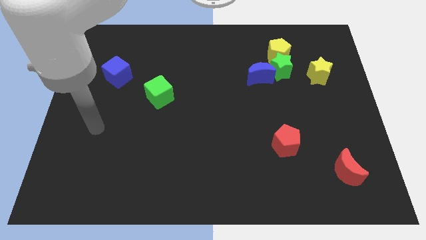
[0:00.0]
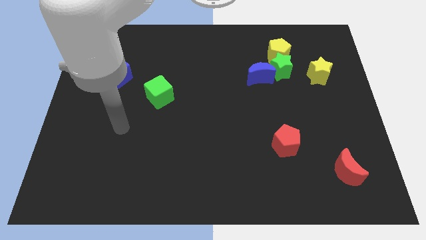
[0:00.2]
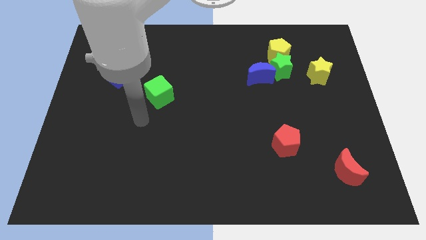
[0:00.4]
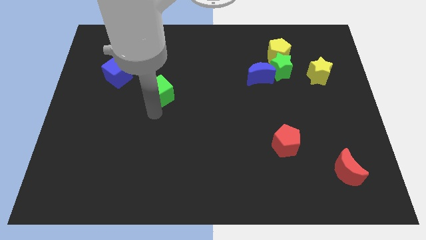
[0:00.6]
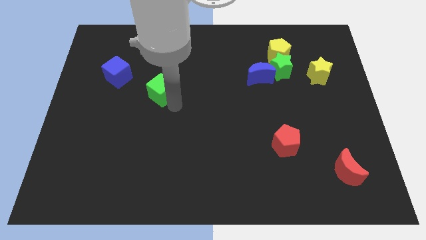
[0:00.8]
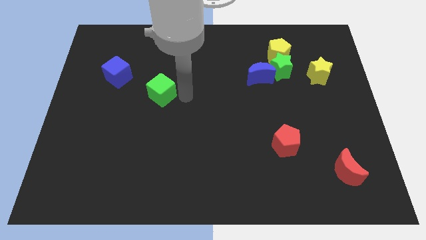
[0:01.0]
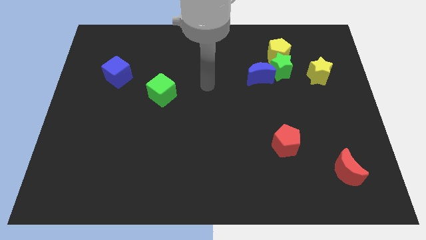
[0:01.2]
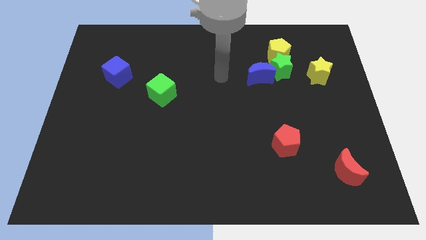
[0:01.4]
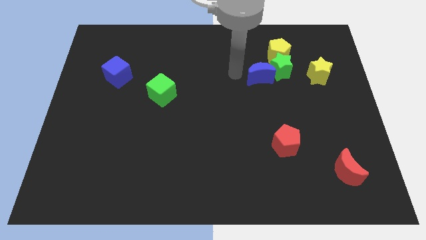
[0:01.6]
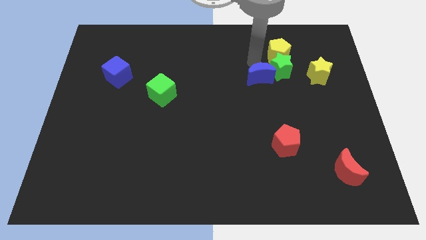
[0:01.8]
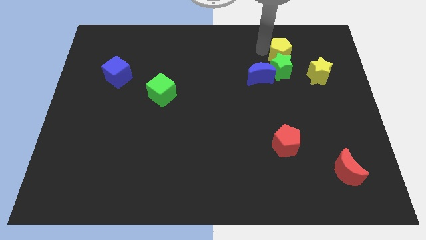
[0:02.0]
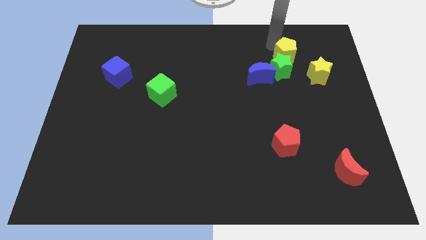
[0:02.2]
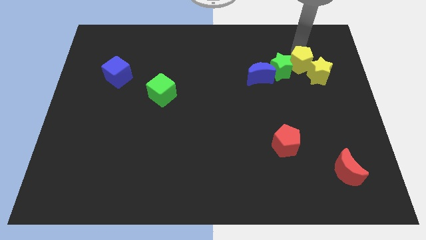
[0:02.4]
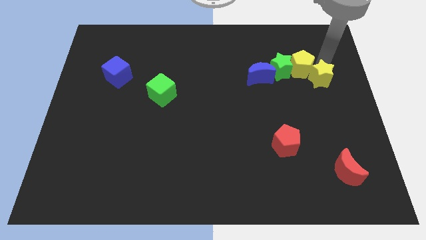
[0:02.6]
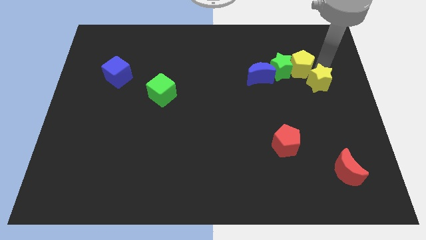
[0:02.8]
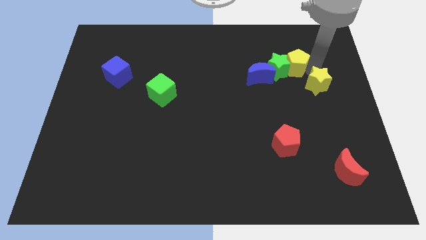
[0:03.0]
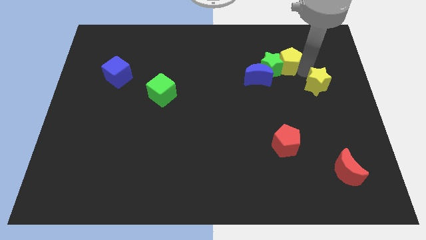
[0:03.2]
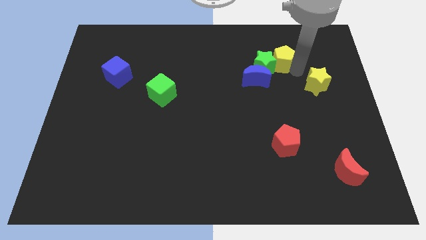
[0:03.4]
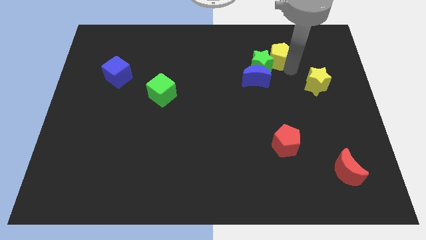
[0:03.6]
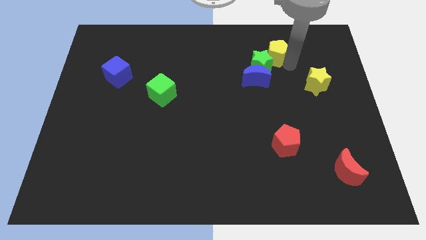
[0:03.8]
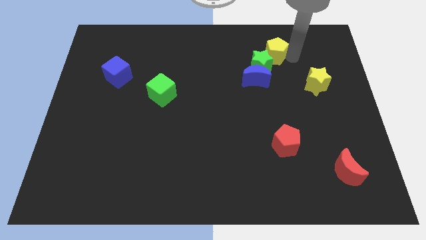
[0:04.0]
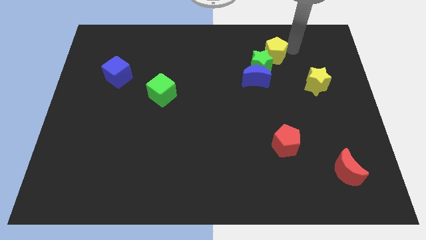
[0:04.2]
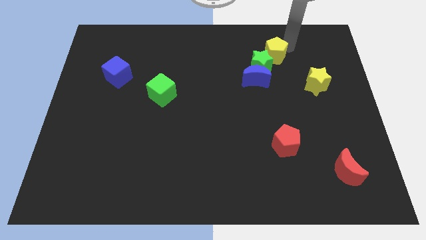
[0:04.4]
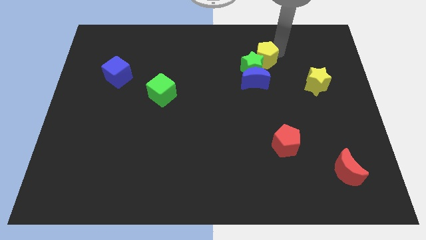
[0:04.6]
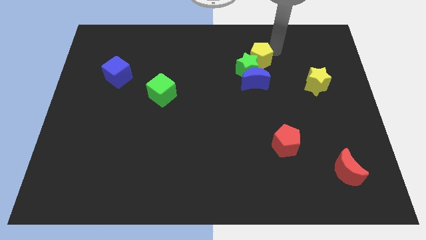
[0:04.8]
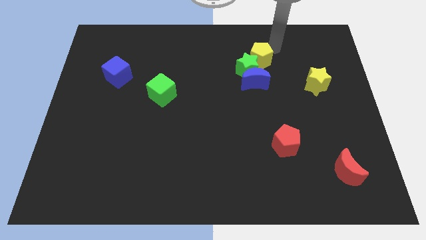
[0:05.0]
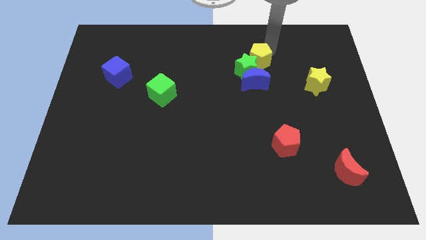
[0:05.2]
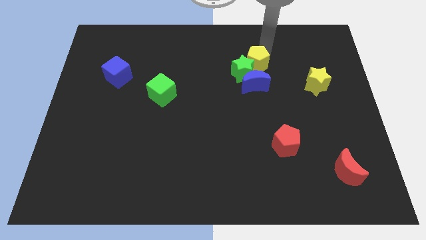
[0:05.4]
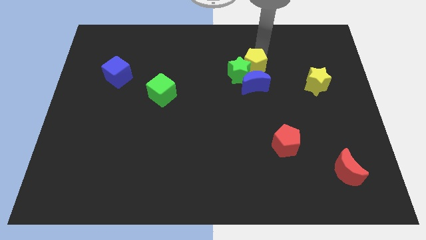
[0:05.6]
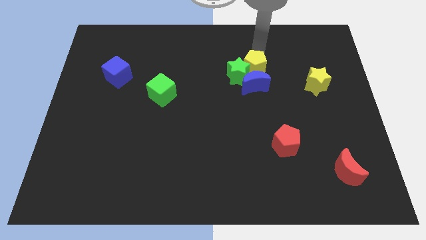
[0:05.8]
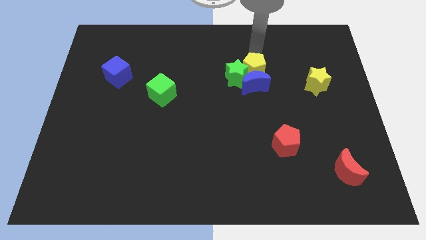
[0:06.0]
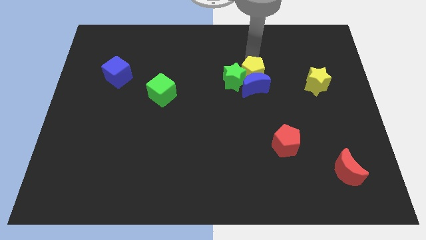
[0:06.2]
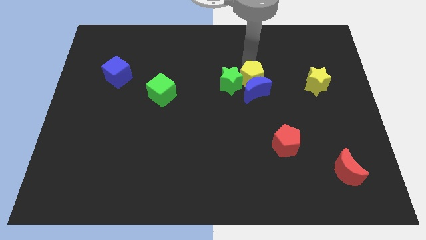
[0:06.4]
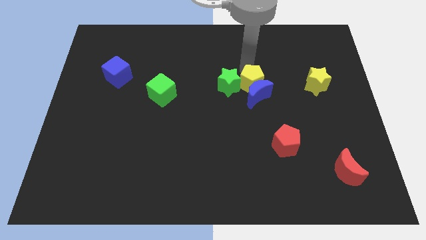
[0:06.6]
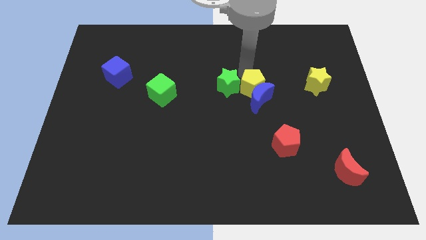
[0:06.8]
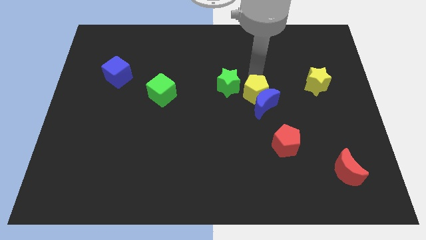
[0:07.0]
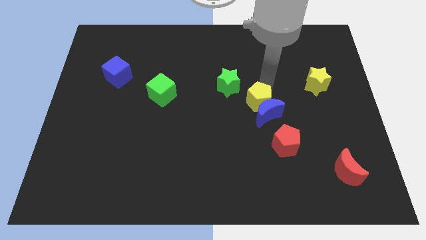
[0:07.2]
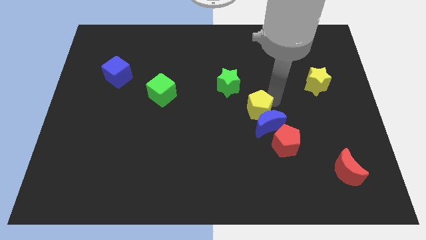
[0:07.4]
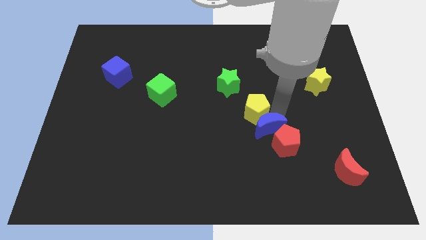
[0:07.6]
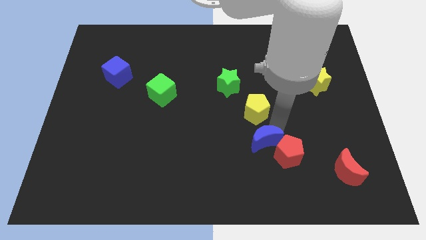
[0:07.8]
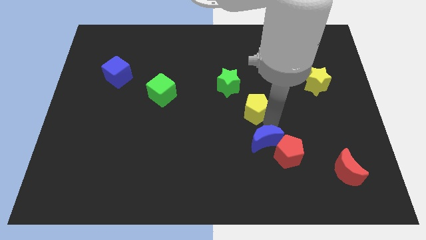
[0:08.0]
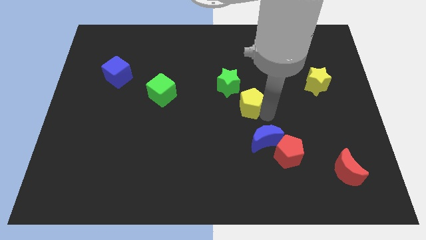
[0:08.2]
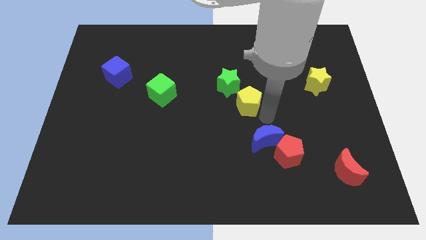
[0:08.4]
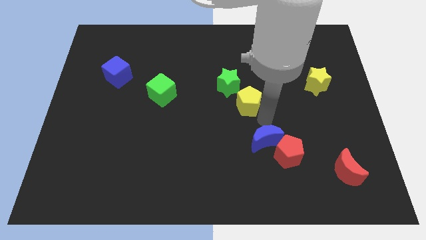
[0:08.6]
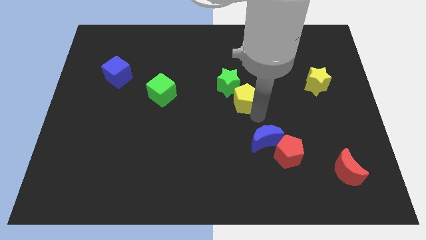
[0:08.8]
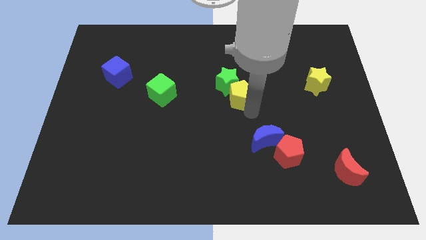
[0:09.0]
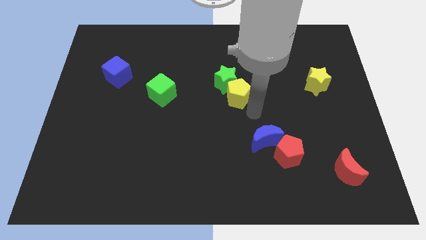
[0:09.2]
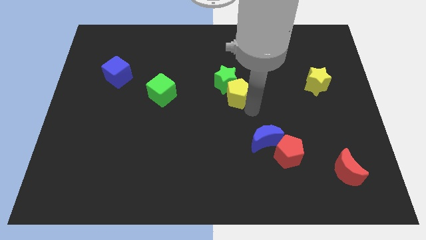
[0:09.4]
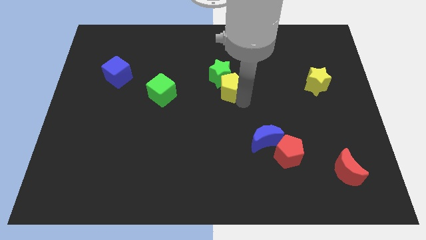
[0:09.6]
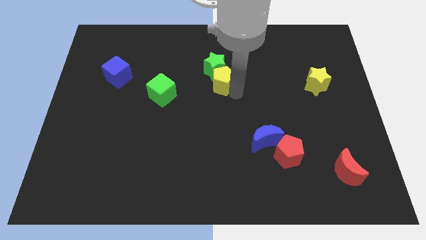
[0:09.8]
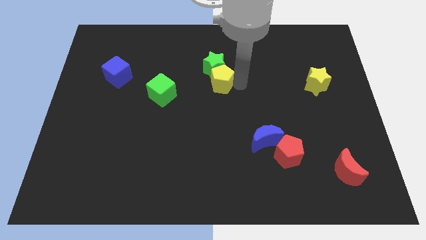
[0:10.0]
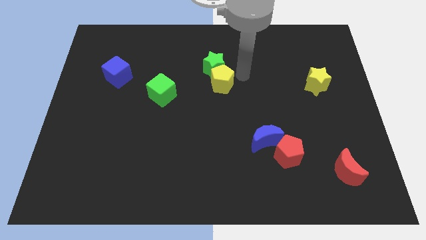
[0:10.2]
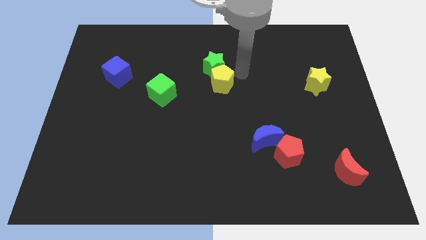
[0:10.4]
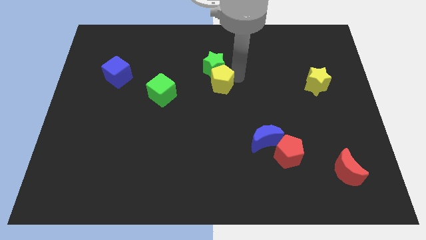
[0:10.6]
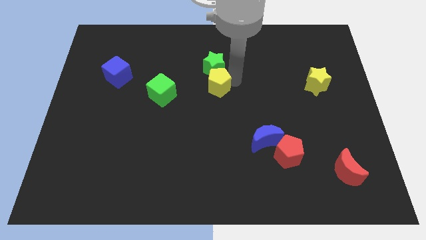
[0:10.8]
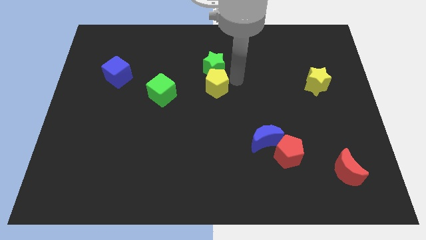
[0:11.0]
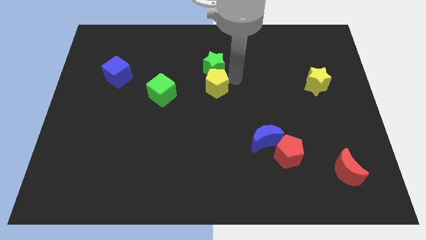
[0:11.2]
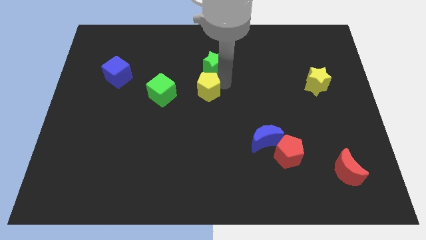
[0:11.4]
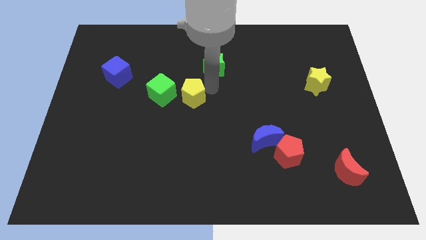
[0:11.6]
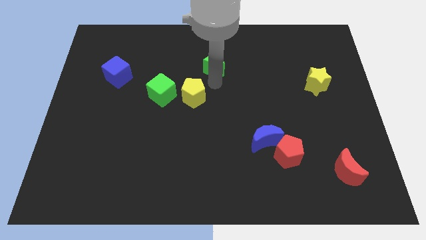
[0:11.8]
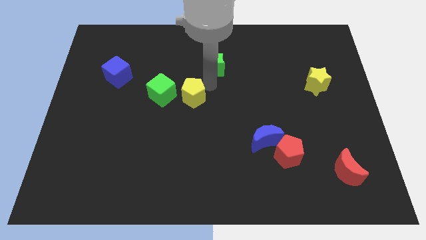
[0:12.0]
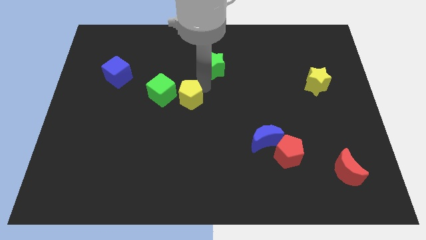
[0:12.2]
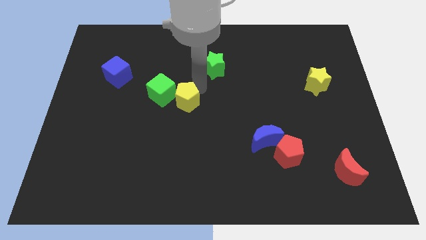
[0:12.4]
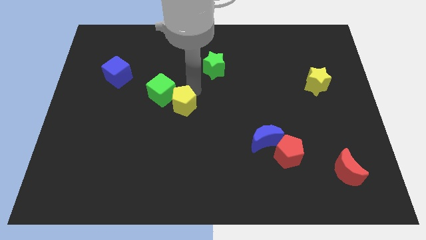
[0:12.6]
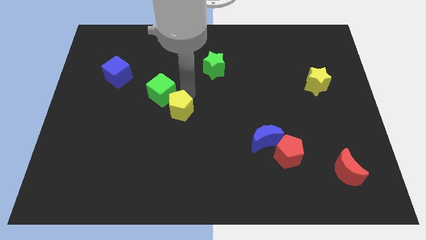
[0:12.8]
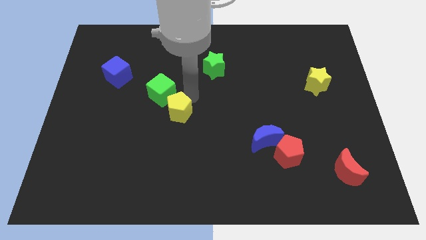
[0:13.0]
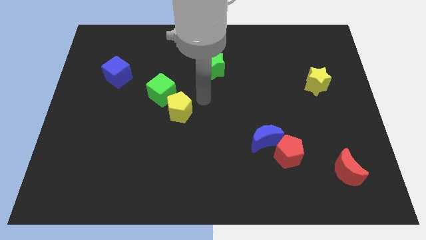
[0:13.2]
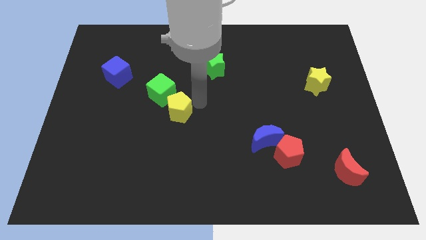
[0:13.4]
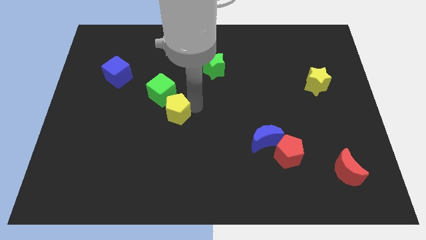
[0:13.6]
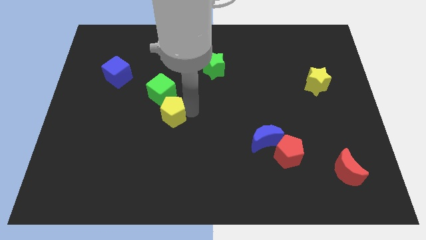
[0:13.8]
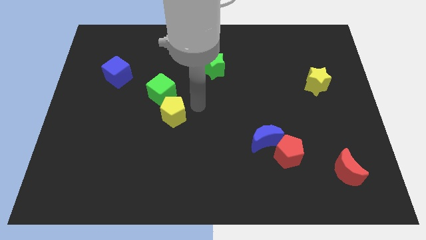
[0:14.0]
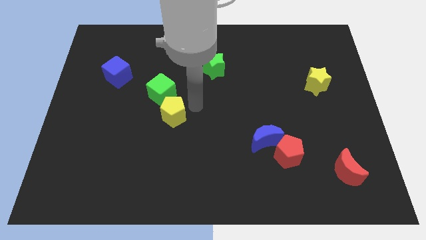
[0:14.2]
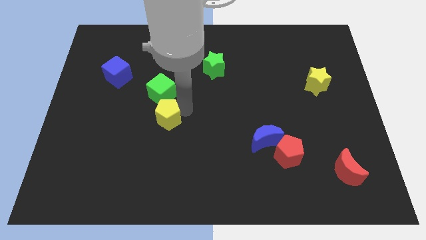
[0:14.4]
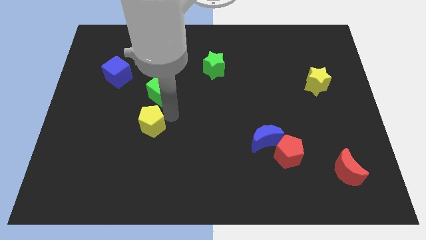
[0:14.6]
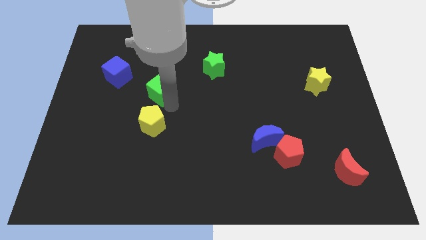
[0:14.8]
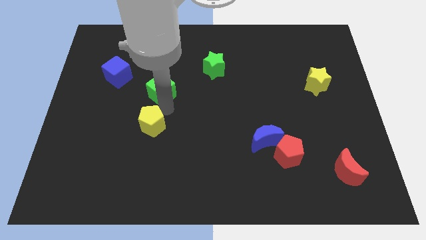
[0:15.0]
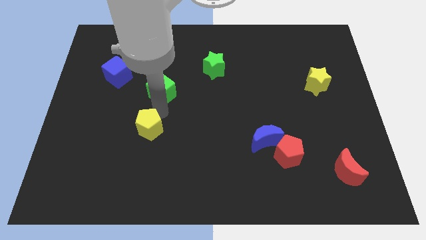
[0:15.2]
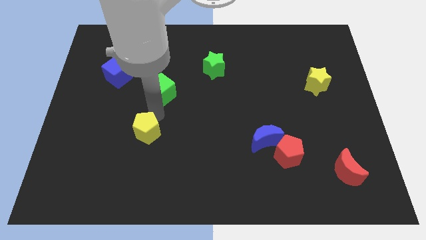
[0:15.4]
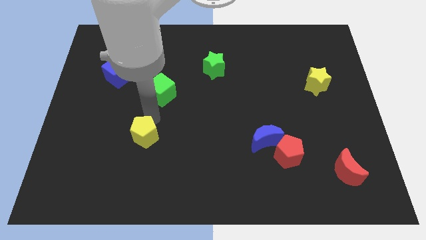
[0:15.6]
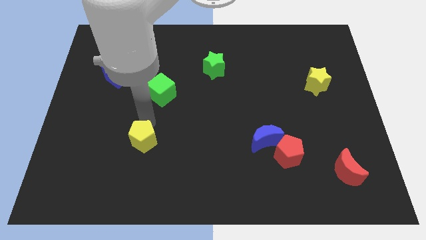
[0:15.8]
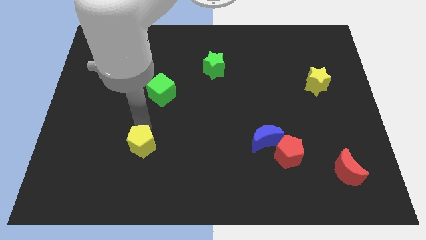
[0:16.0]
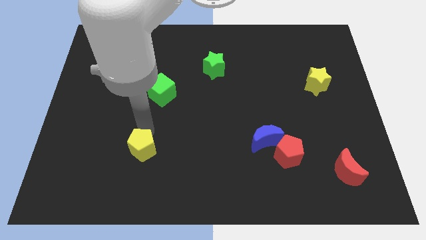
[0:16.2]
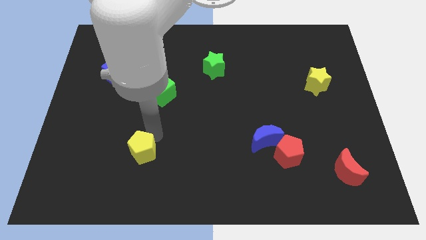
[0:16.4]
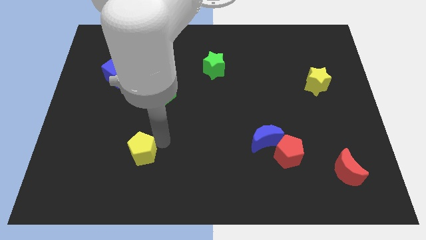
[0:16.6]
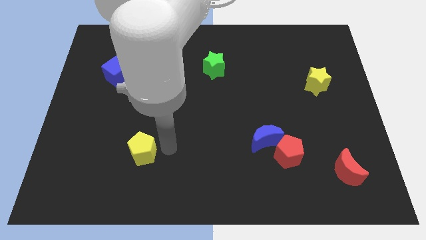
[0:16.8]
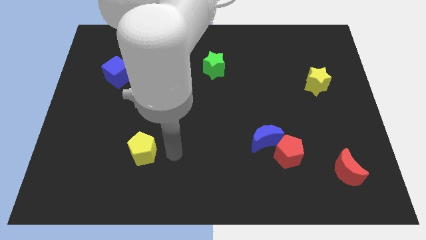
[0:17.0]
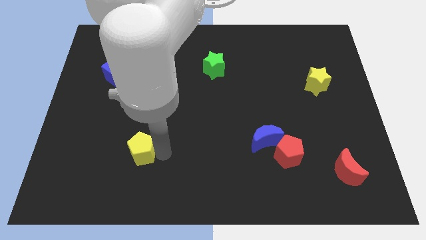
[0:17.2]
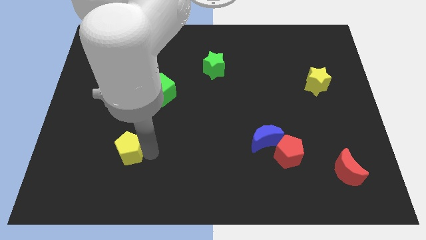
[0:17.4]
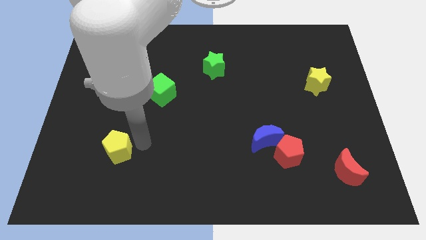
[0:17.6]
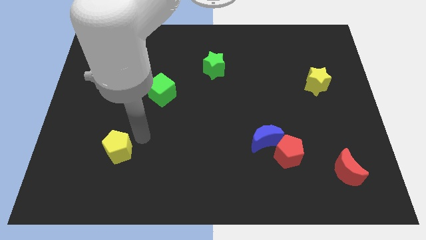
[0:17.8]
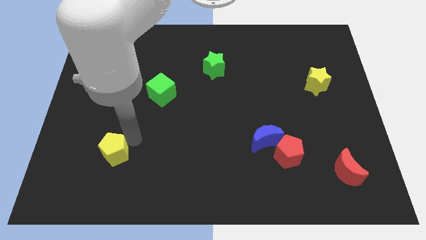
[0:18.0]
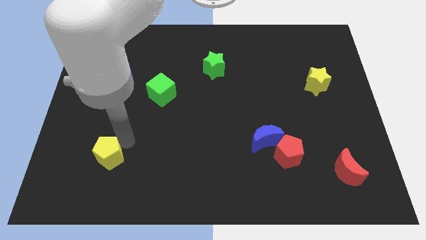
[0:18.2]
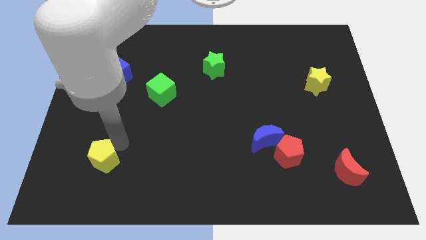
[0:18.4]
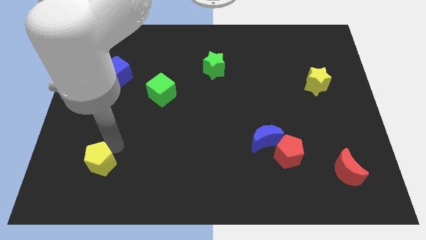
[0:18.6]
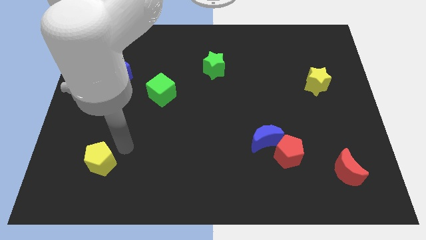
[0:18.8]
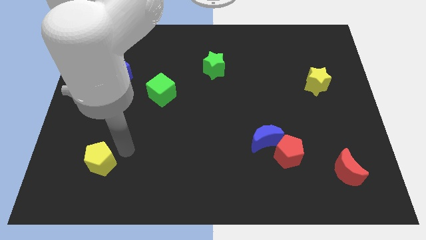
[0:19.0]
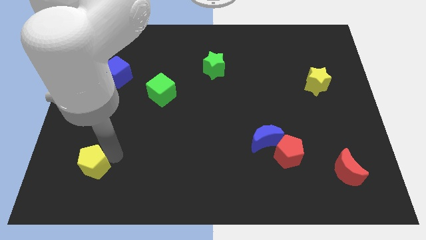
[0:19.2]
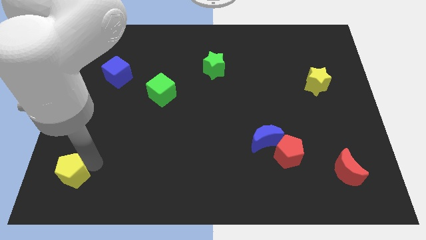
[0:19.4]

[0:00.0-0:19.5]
move the yellow pentagon to the bottom left
